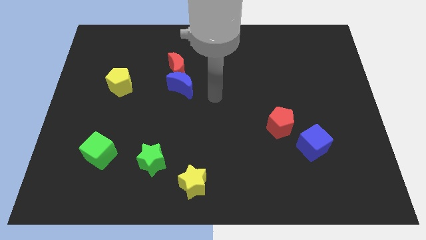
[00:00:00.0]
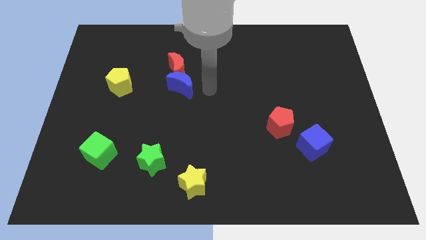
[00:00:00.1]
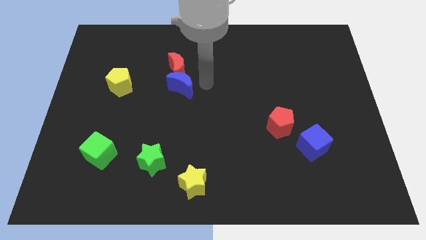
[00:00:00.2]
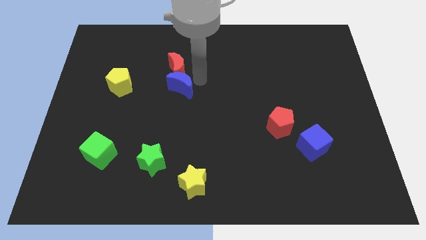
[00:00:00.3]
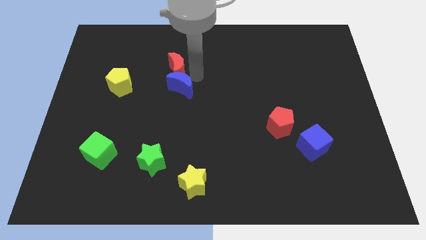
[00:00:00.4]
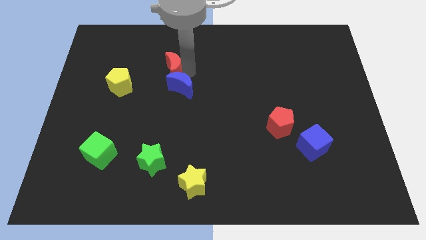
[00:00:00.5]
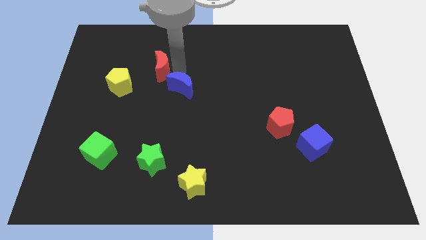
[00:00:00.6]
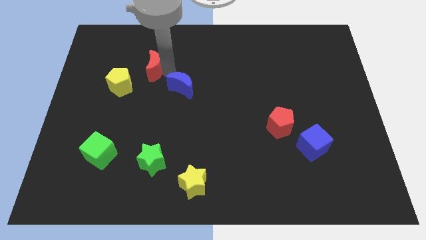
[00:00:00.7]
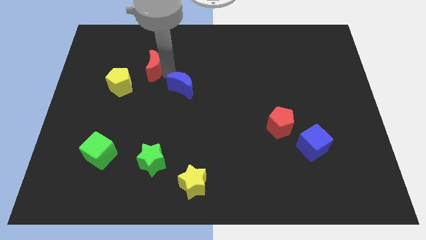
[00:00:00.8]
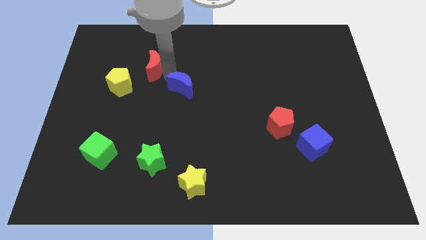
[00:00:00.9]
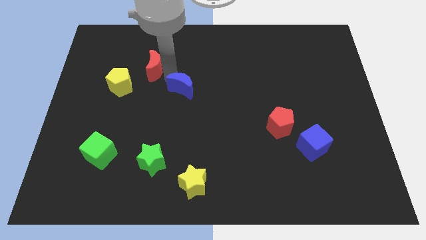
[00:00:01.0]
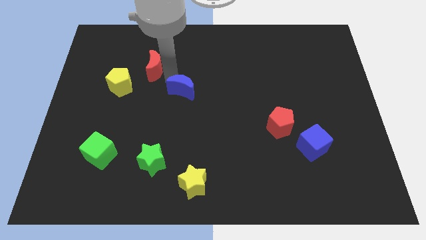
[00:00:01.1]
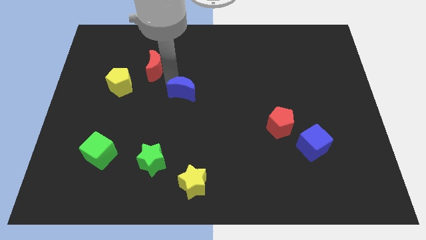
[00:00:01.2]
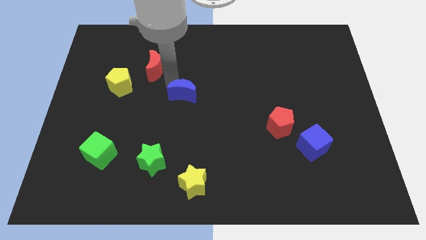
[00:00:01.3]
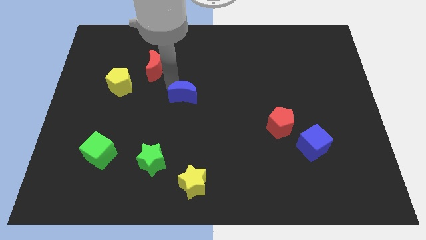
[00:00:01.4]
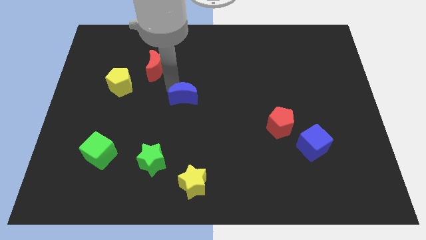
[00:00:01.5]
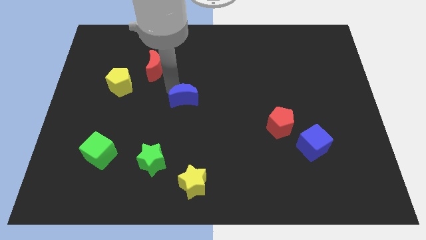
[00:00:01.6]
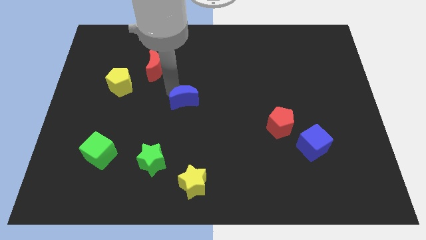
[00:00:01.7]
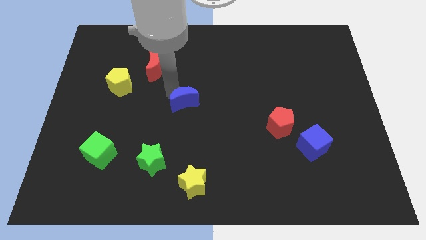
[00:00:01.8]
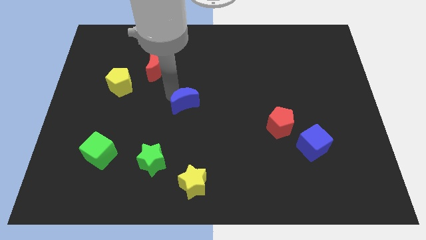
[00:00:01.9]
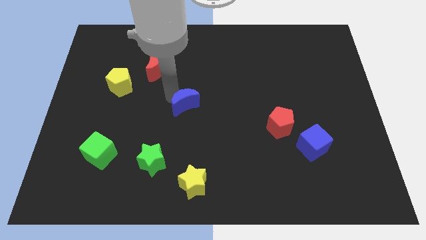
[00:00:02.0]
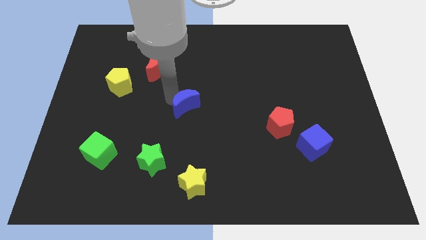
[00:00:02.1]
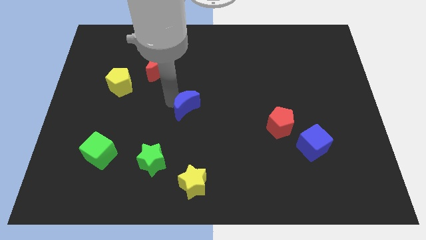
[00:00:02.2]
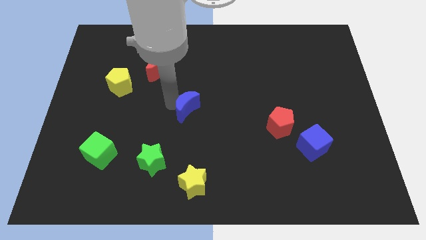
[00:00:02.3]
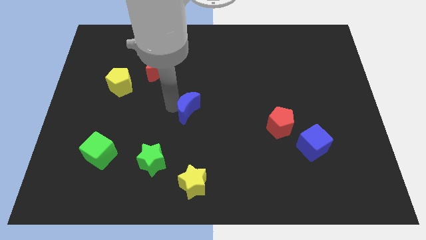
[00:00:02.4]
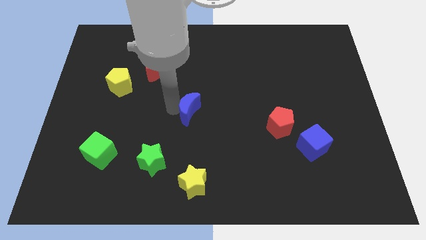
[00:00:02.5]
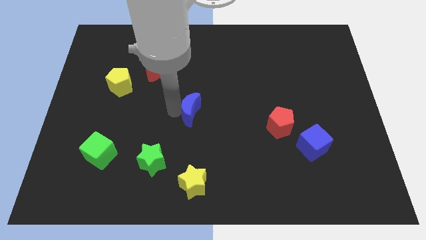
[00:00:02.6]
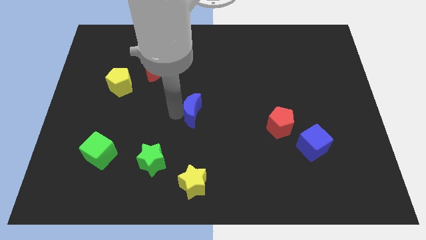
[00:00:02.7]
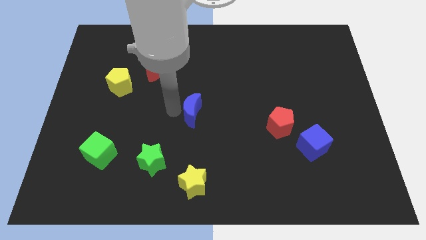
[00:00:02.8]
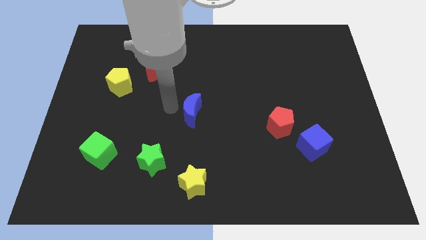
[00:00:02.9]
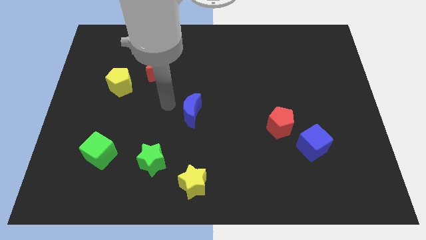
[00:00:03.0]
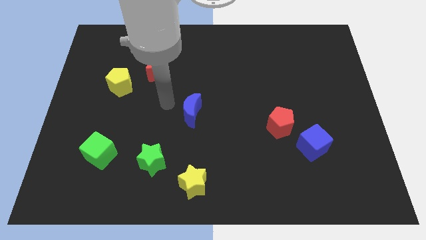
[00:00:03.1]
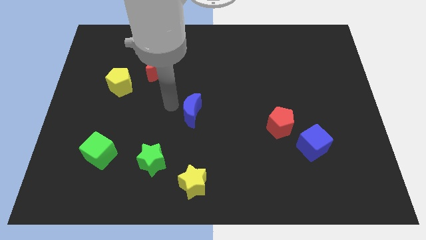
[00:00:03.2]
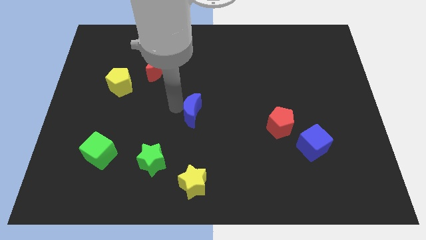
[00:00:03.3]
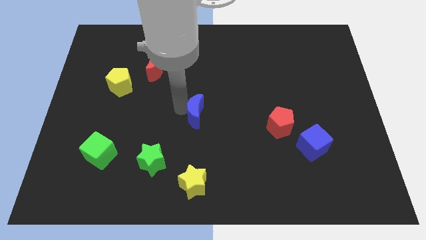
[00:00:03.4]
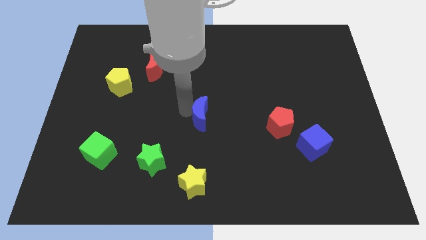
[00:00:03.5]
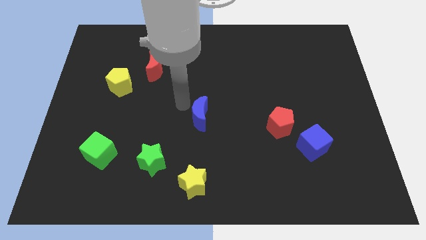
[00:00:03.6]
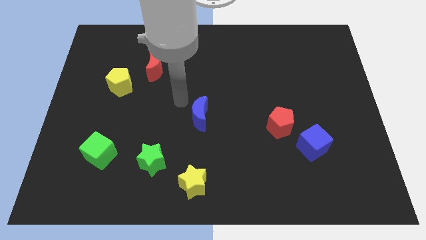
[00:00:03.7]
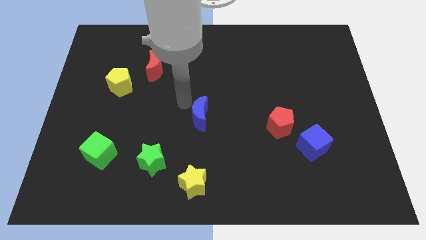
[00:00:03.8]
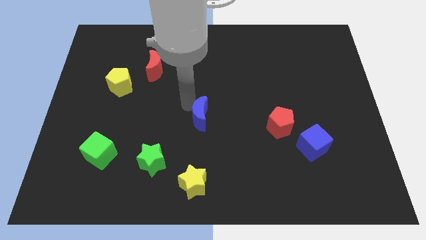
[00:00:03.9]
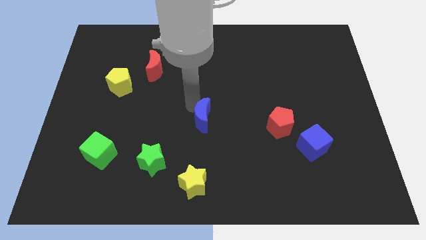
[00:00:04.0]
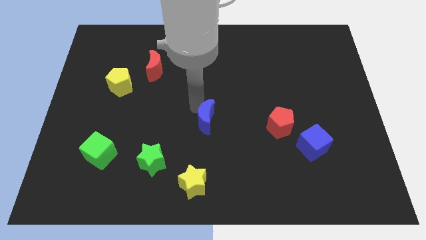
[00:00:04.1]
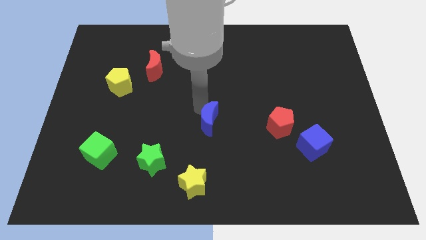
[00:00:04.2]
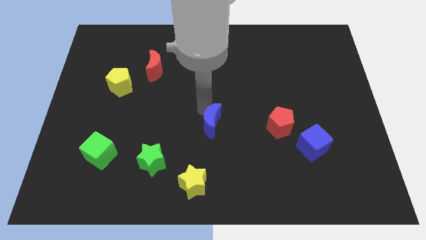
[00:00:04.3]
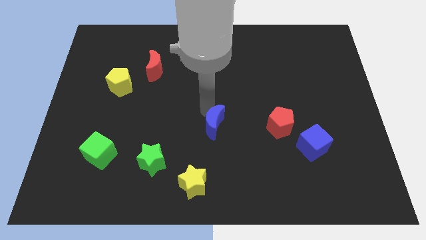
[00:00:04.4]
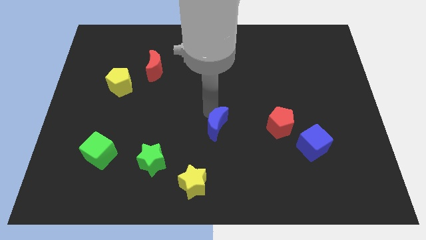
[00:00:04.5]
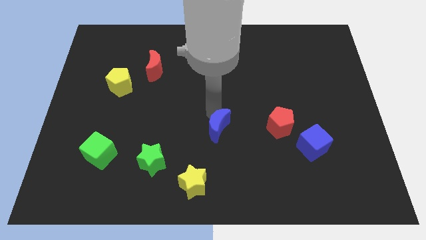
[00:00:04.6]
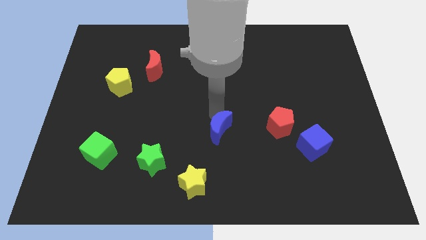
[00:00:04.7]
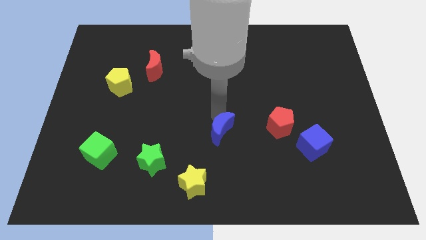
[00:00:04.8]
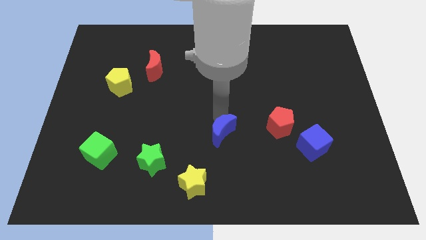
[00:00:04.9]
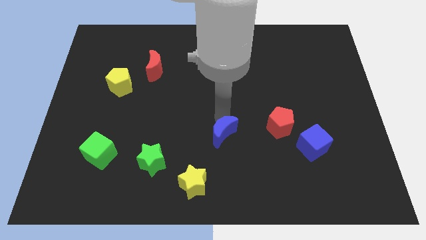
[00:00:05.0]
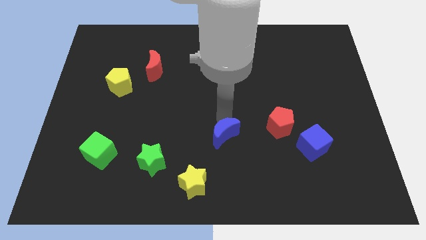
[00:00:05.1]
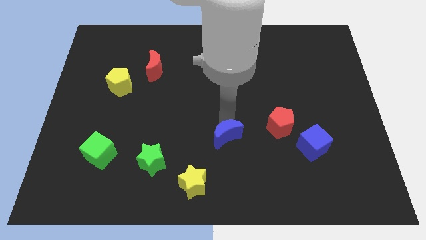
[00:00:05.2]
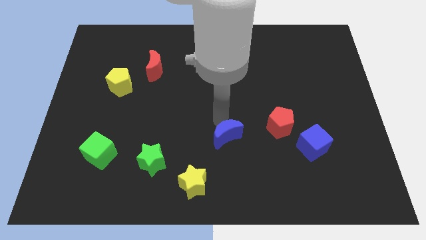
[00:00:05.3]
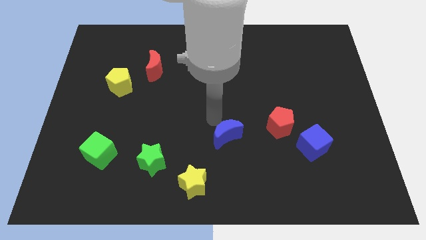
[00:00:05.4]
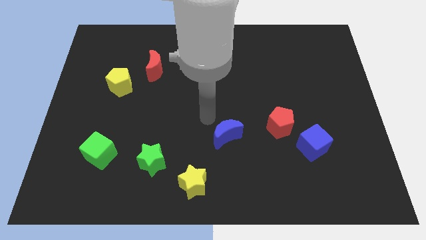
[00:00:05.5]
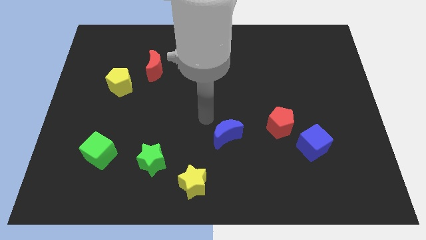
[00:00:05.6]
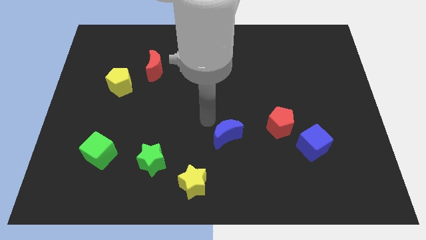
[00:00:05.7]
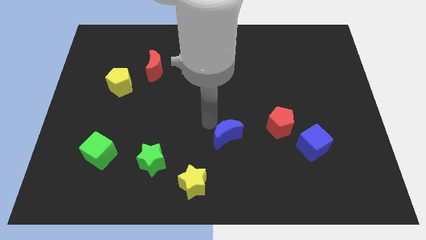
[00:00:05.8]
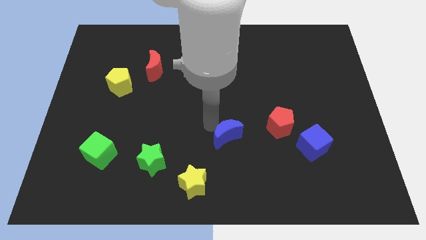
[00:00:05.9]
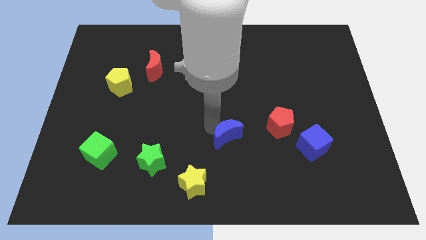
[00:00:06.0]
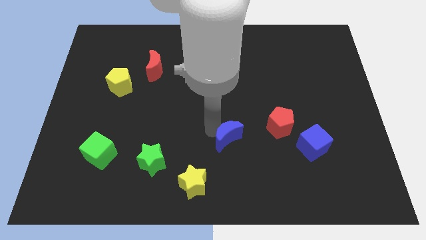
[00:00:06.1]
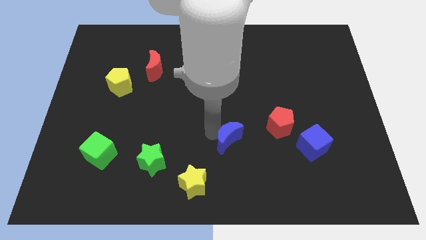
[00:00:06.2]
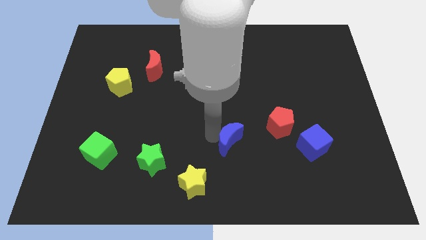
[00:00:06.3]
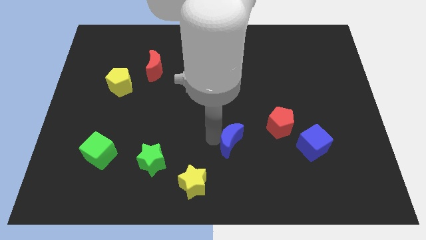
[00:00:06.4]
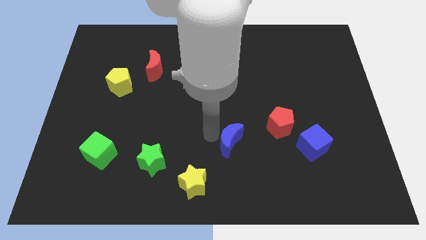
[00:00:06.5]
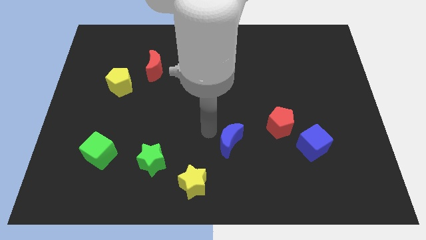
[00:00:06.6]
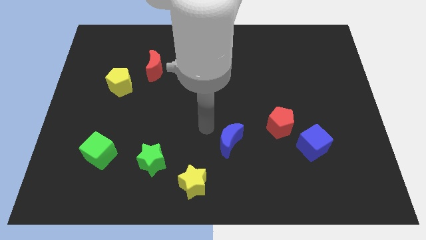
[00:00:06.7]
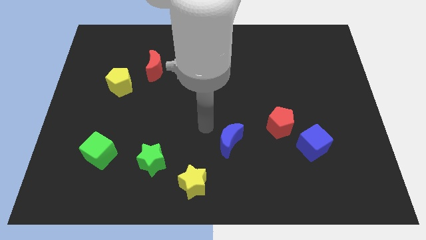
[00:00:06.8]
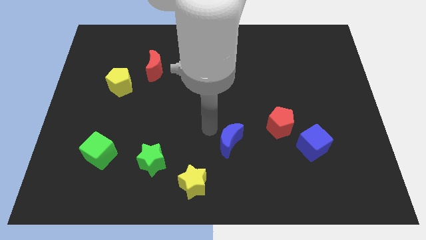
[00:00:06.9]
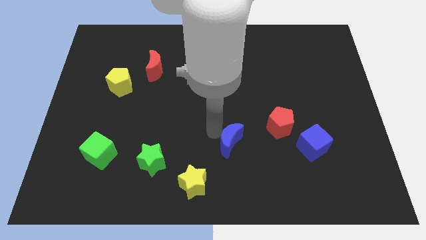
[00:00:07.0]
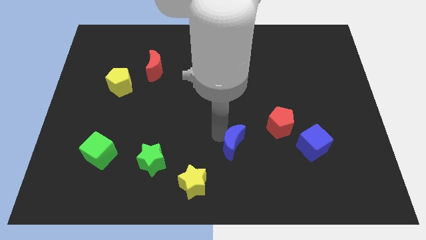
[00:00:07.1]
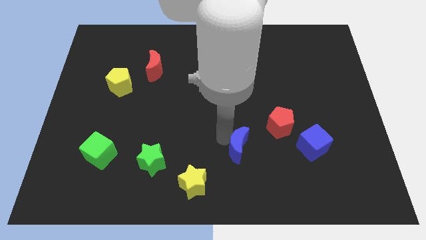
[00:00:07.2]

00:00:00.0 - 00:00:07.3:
push the blue moon downwards and to the right diagonally

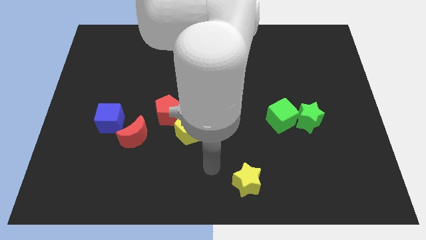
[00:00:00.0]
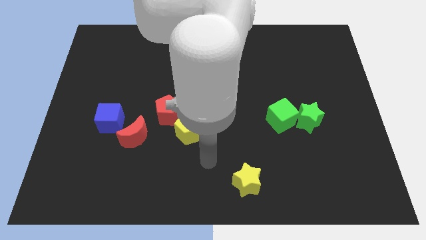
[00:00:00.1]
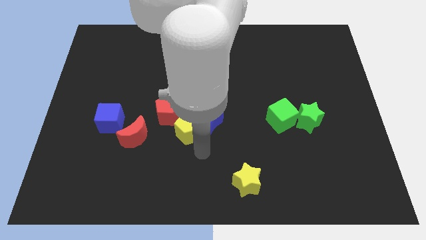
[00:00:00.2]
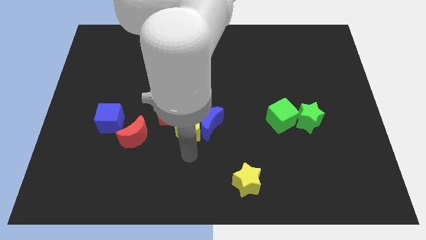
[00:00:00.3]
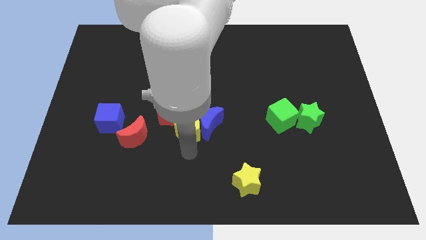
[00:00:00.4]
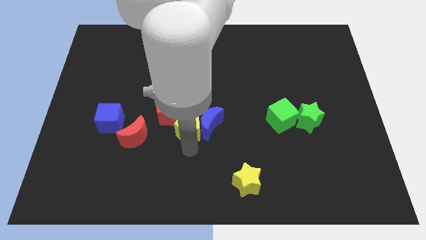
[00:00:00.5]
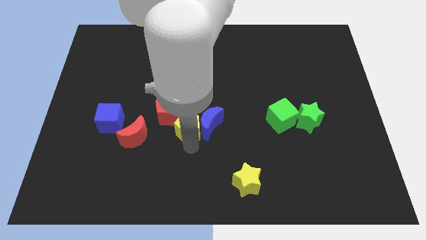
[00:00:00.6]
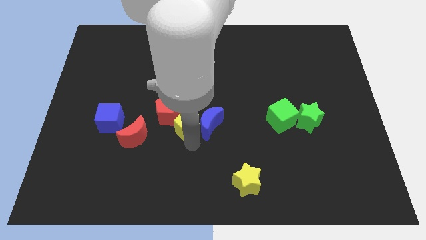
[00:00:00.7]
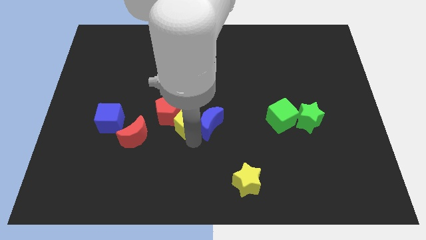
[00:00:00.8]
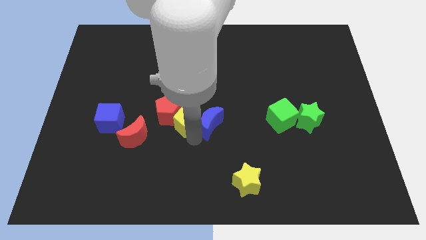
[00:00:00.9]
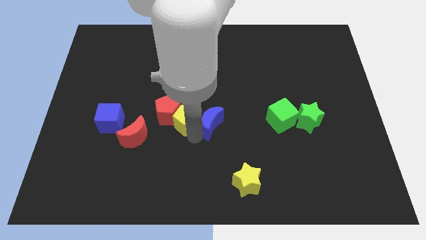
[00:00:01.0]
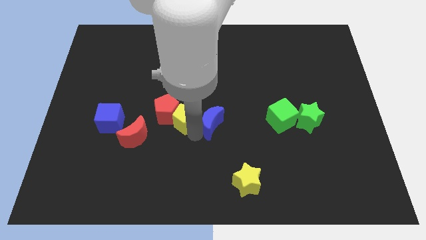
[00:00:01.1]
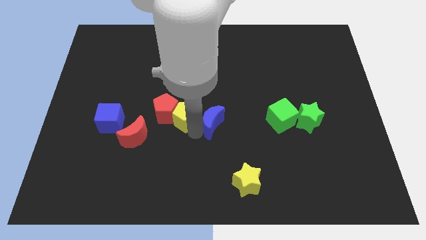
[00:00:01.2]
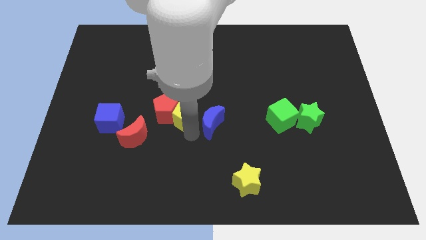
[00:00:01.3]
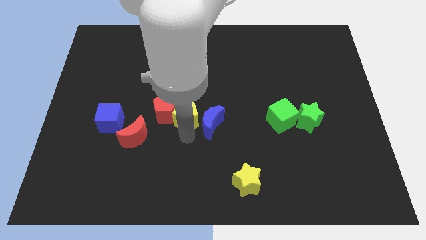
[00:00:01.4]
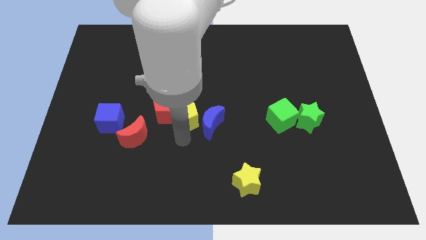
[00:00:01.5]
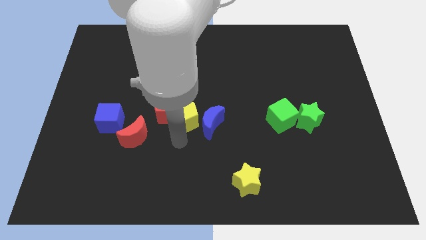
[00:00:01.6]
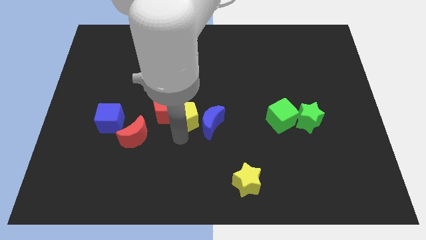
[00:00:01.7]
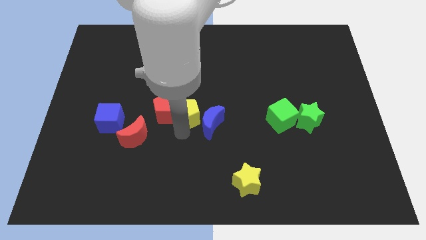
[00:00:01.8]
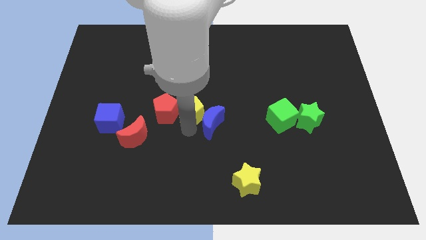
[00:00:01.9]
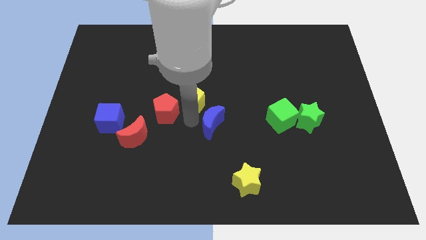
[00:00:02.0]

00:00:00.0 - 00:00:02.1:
slide the yellow pentagon a bit up
